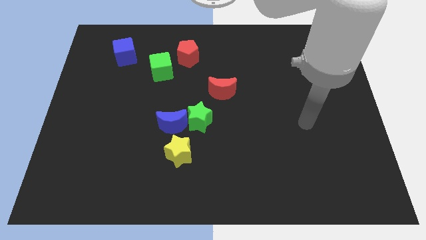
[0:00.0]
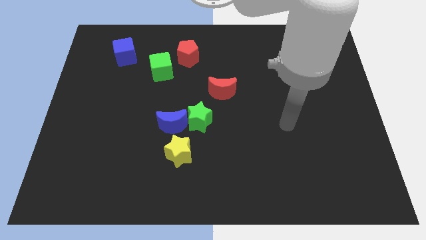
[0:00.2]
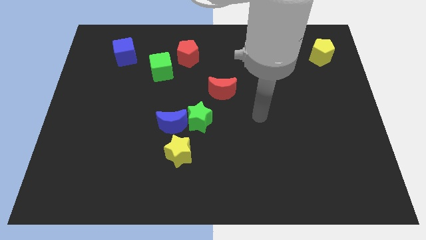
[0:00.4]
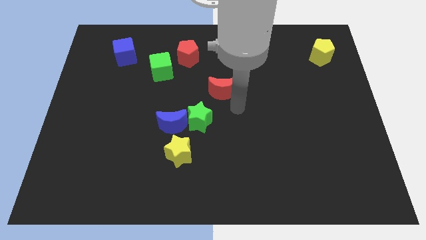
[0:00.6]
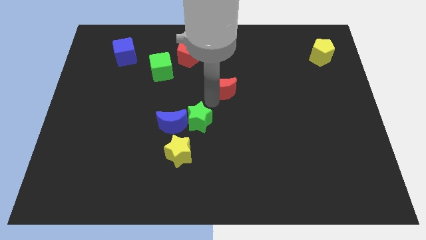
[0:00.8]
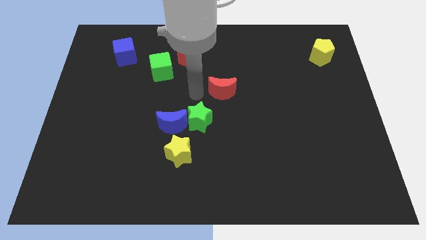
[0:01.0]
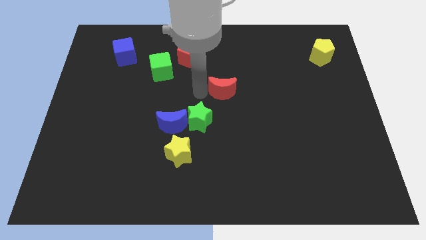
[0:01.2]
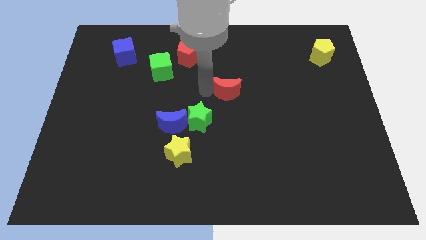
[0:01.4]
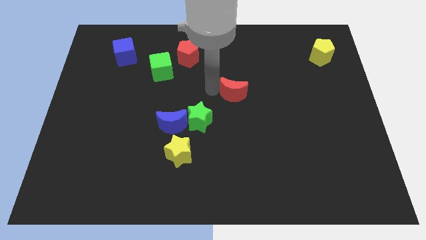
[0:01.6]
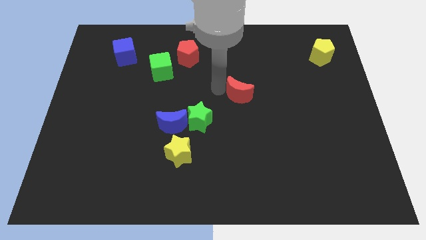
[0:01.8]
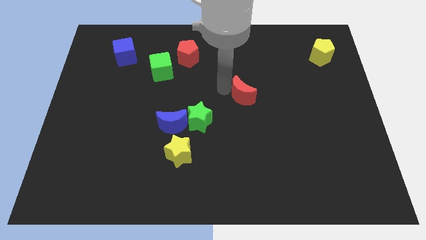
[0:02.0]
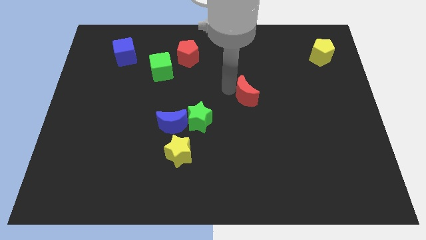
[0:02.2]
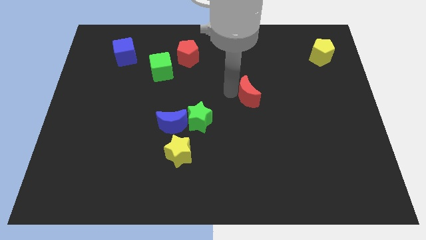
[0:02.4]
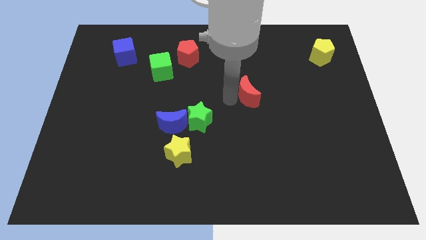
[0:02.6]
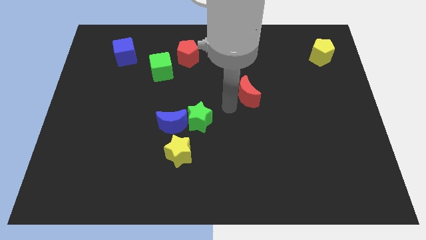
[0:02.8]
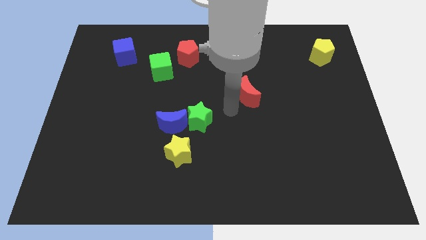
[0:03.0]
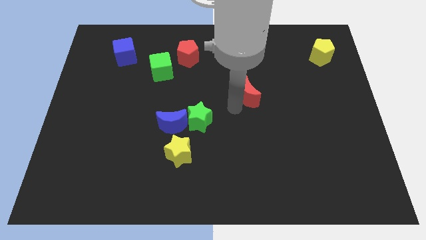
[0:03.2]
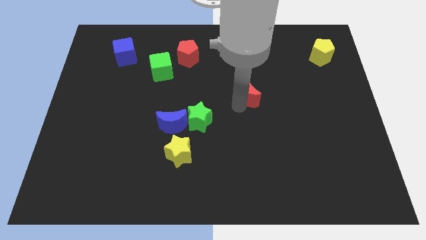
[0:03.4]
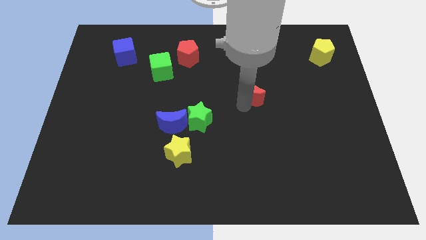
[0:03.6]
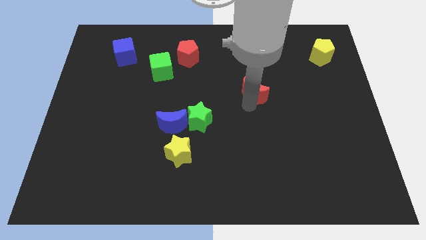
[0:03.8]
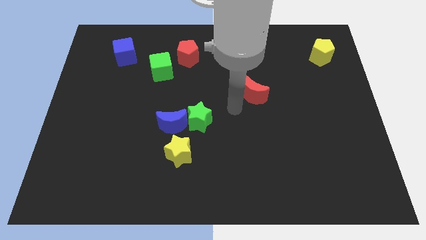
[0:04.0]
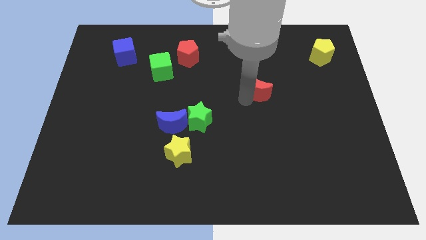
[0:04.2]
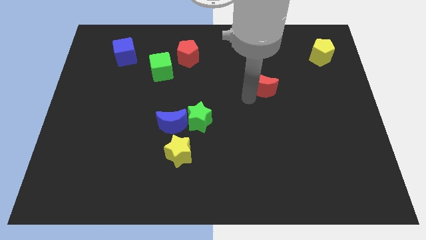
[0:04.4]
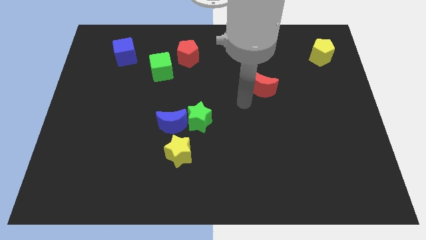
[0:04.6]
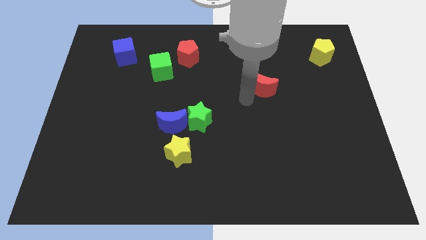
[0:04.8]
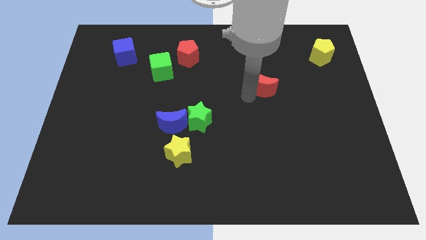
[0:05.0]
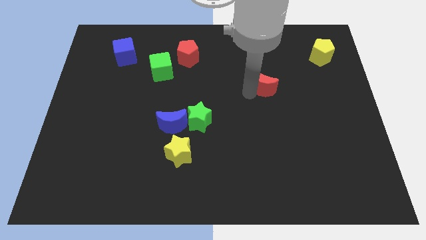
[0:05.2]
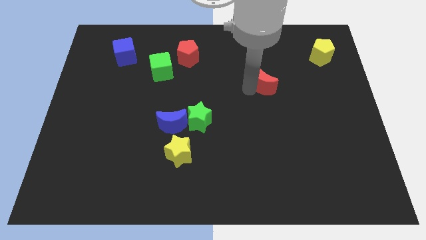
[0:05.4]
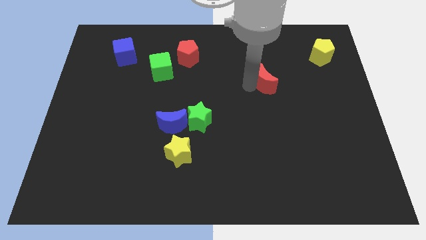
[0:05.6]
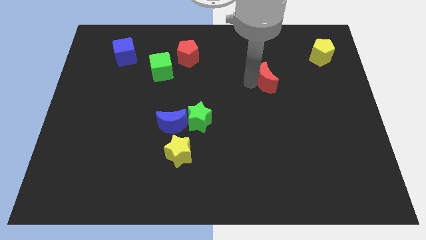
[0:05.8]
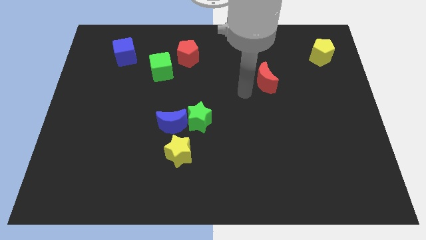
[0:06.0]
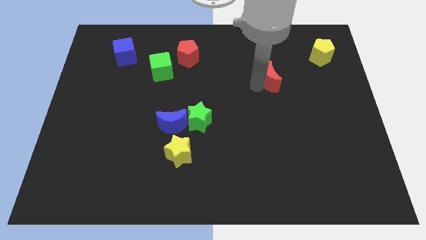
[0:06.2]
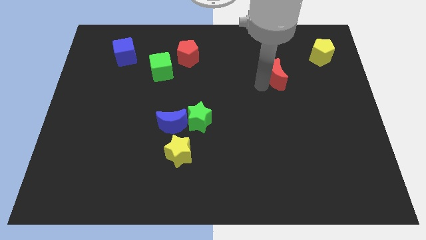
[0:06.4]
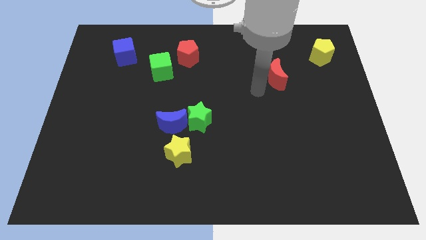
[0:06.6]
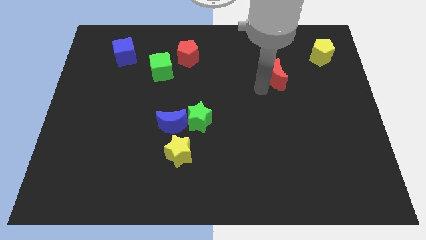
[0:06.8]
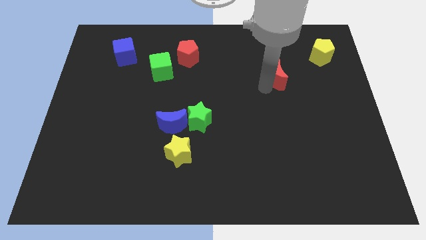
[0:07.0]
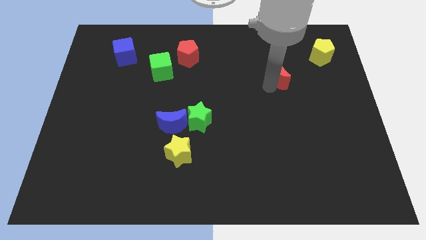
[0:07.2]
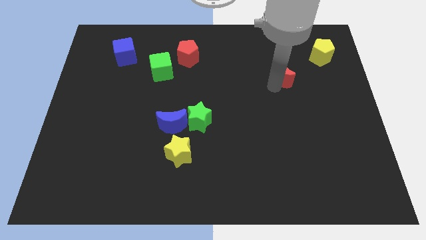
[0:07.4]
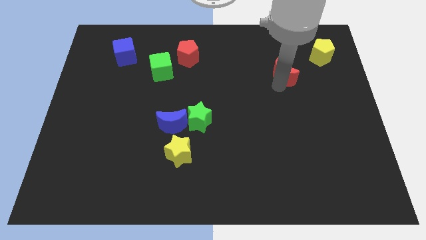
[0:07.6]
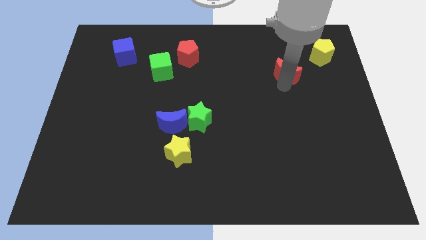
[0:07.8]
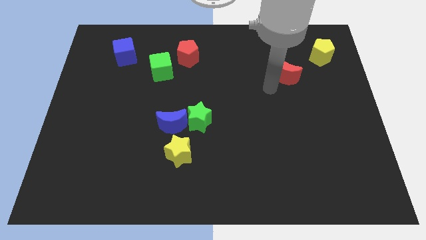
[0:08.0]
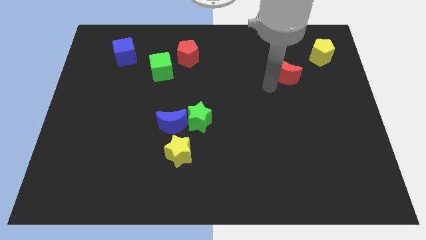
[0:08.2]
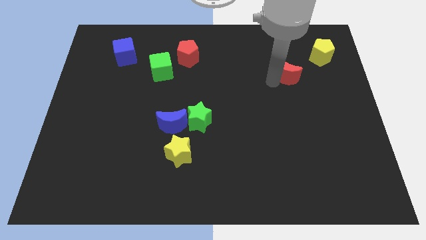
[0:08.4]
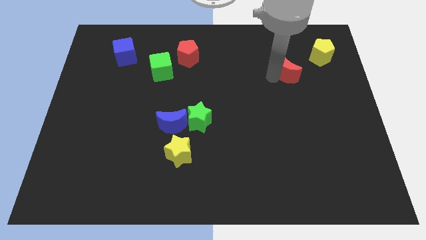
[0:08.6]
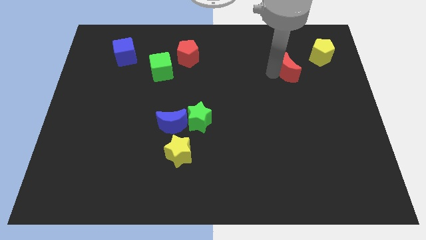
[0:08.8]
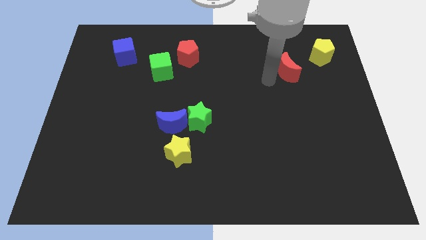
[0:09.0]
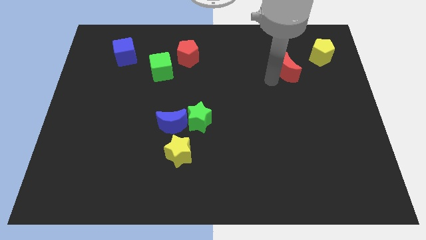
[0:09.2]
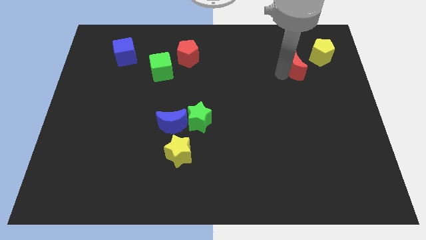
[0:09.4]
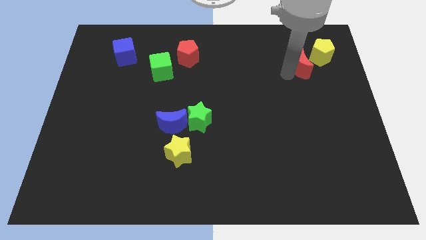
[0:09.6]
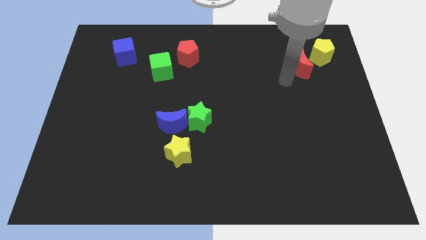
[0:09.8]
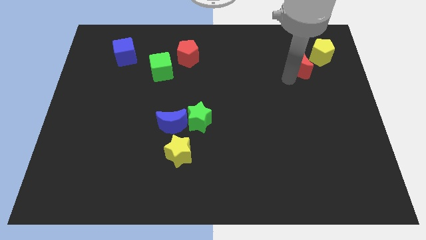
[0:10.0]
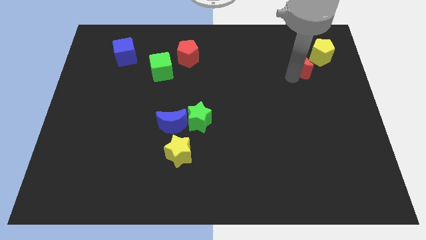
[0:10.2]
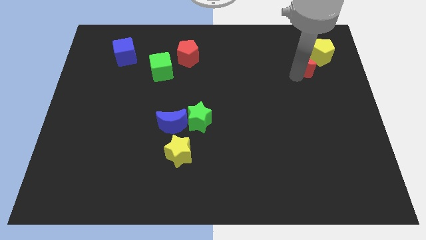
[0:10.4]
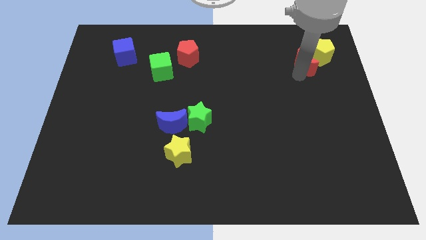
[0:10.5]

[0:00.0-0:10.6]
move the red moon close to the yellow pentagon

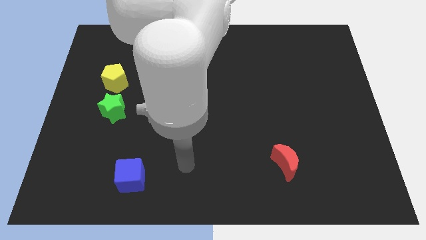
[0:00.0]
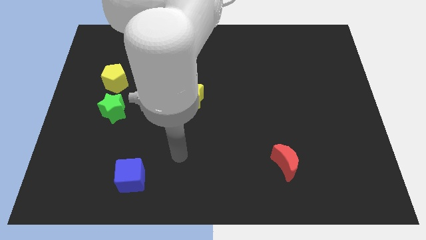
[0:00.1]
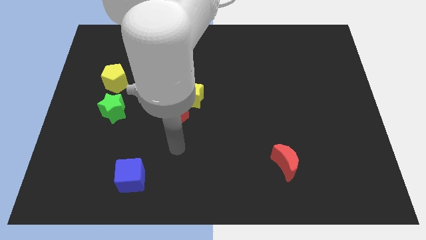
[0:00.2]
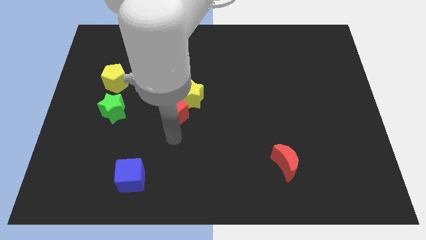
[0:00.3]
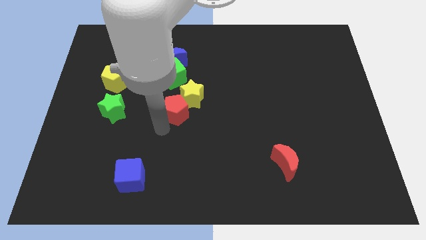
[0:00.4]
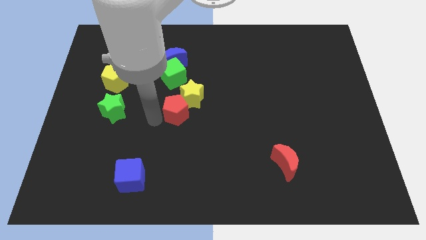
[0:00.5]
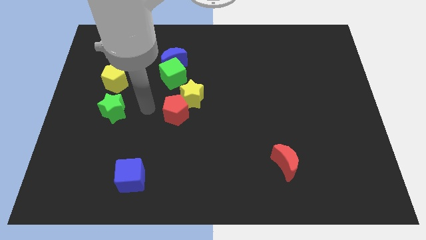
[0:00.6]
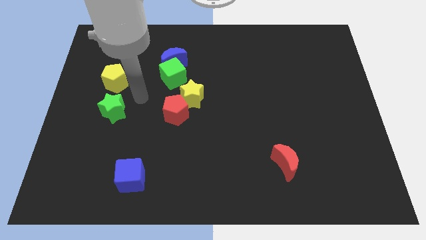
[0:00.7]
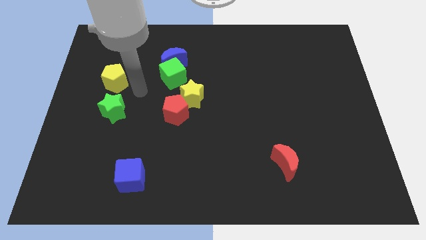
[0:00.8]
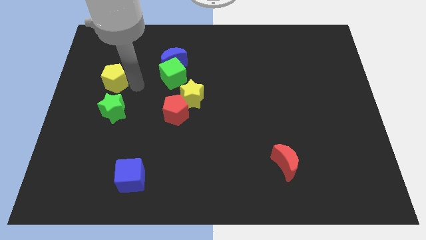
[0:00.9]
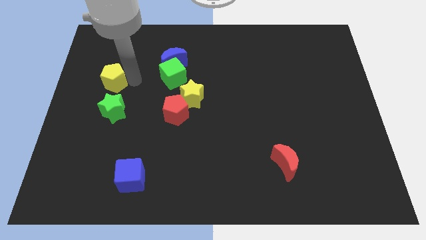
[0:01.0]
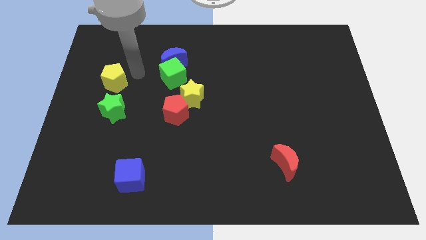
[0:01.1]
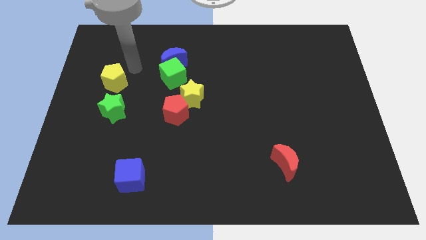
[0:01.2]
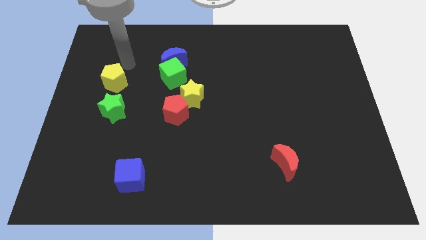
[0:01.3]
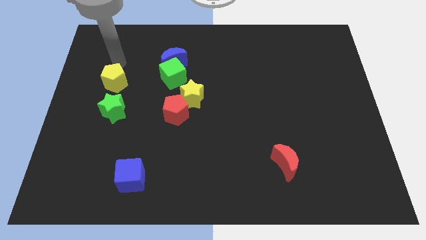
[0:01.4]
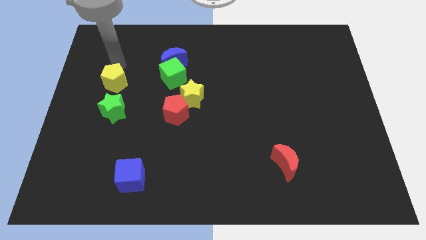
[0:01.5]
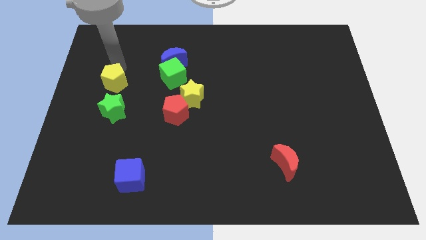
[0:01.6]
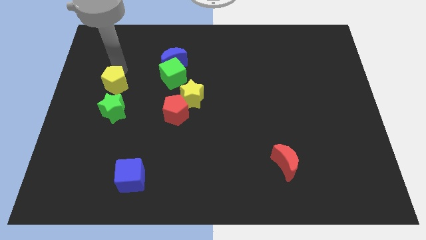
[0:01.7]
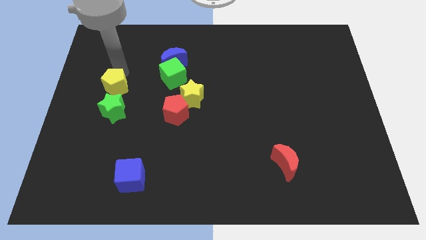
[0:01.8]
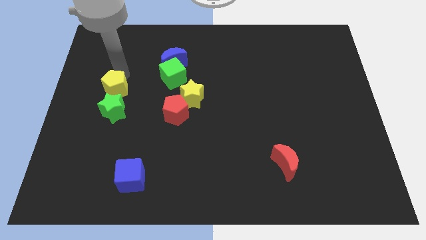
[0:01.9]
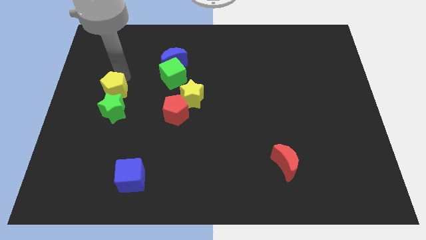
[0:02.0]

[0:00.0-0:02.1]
slide the yellow pentagon next to the green star
